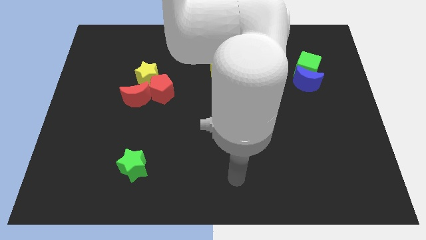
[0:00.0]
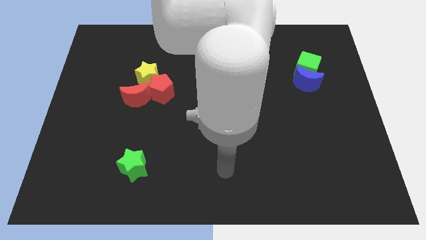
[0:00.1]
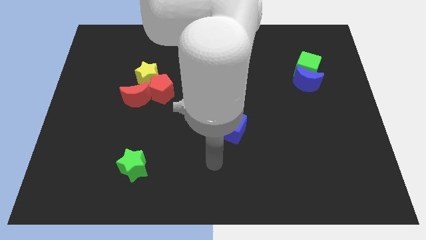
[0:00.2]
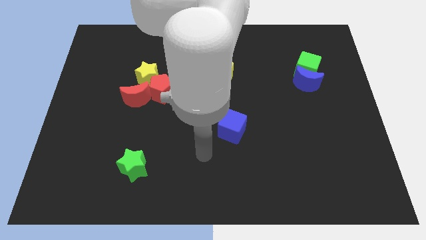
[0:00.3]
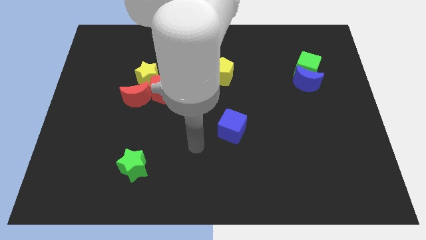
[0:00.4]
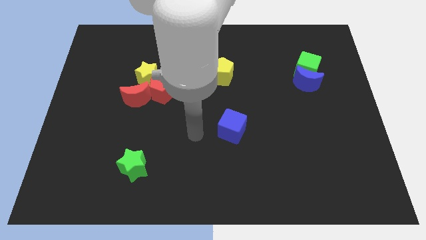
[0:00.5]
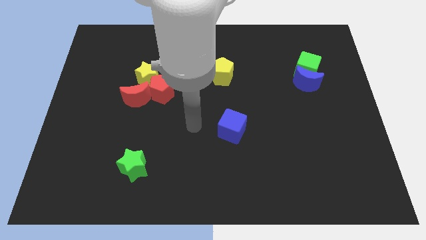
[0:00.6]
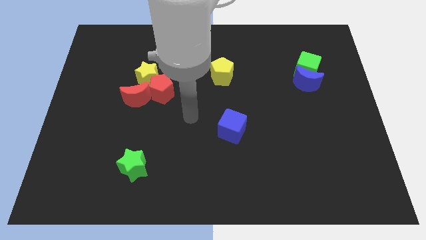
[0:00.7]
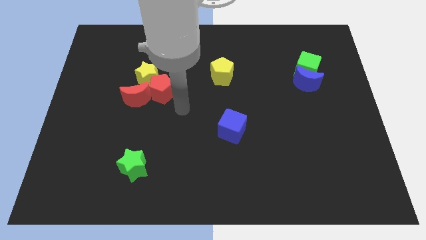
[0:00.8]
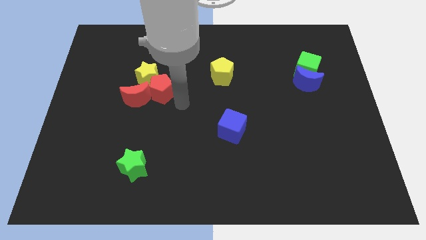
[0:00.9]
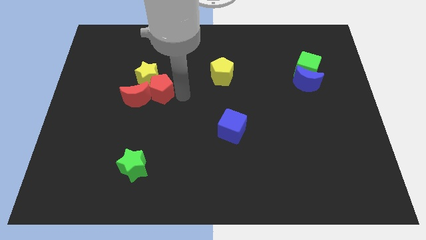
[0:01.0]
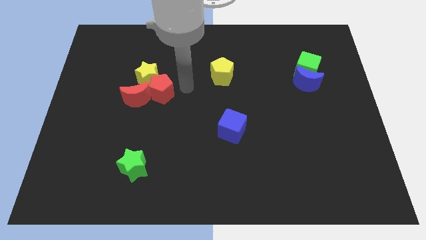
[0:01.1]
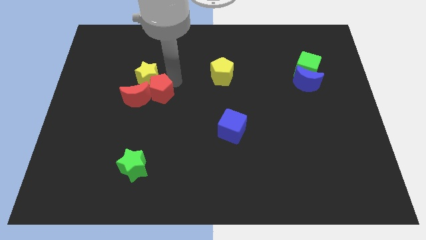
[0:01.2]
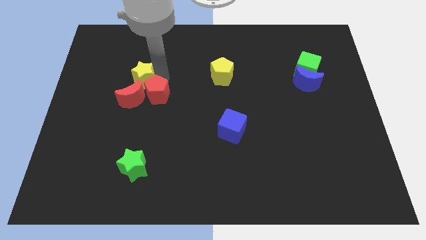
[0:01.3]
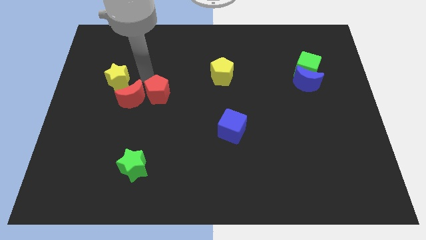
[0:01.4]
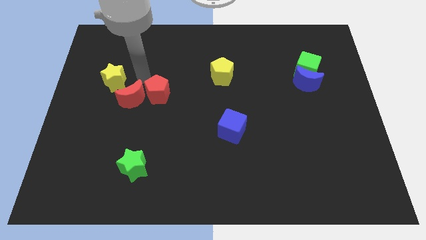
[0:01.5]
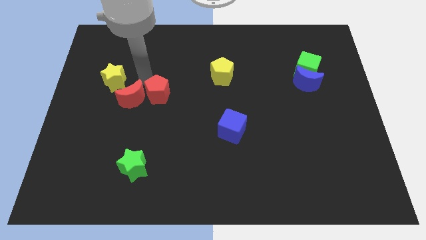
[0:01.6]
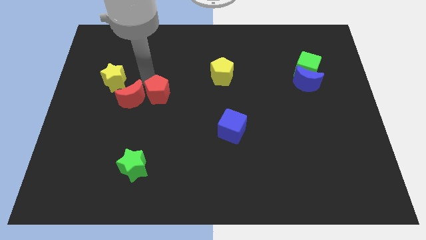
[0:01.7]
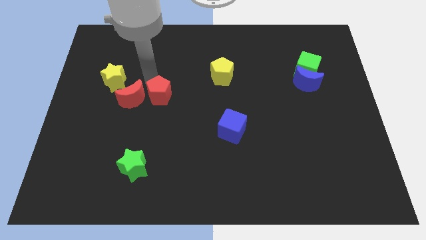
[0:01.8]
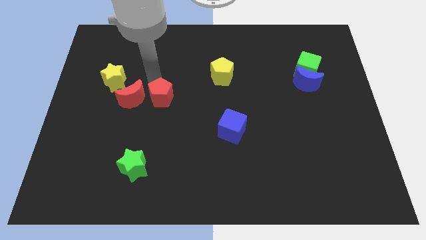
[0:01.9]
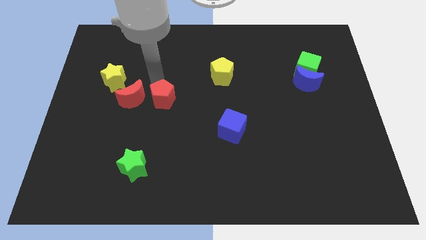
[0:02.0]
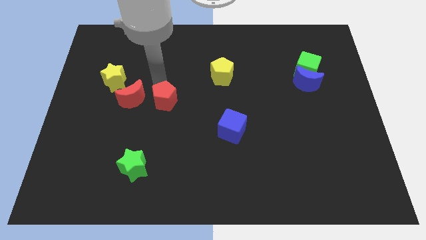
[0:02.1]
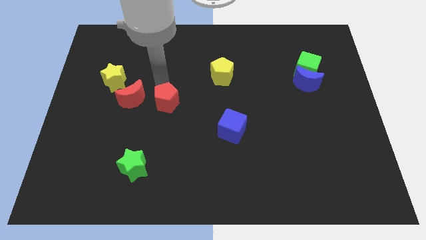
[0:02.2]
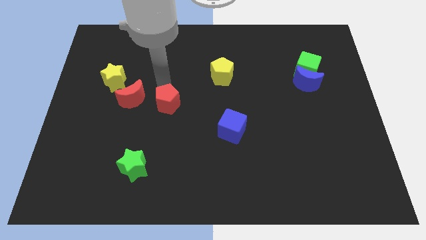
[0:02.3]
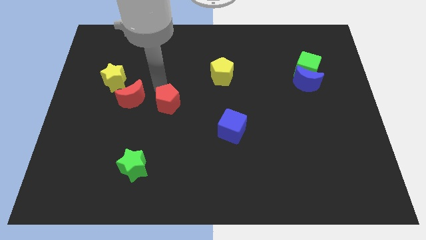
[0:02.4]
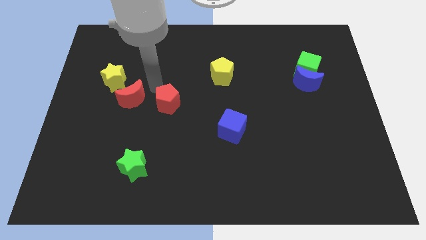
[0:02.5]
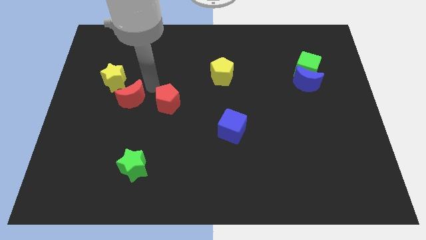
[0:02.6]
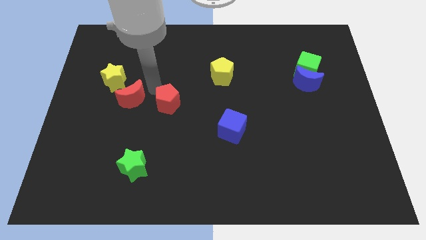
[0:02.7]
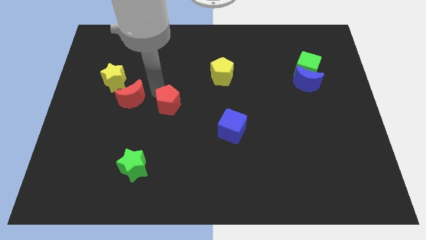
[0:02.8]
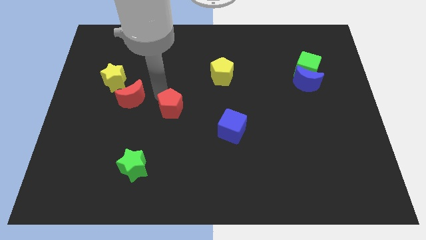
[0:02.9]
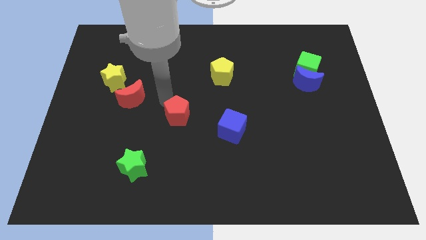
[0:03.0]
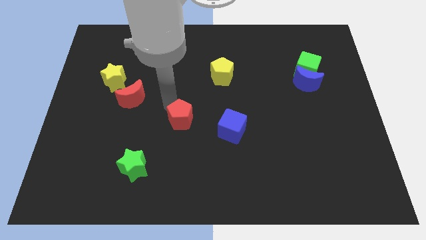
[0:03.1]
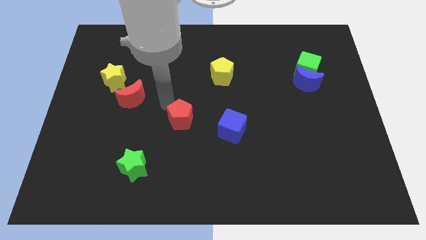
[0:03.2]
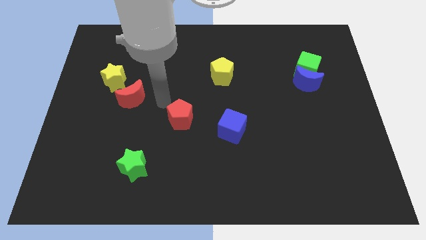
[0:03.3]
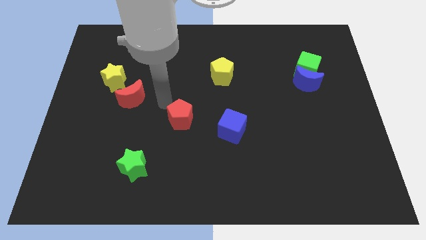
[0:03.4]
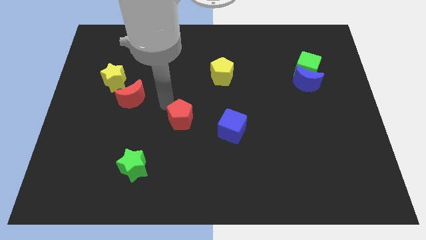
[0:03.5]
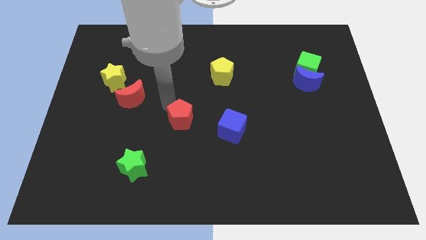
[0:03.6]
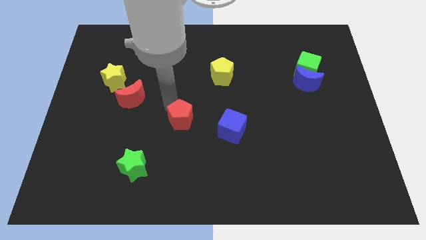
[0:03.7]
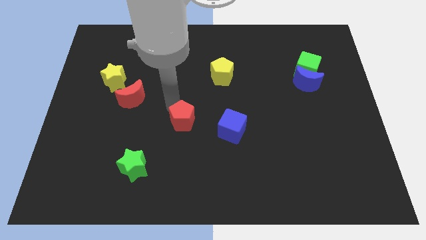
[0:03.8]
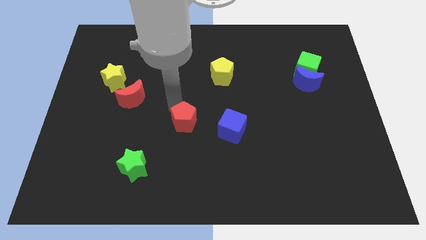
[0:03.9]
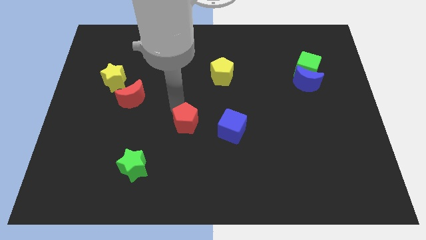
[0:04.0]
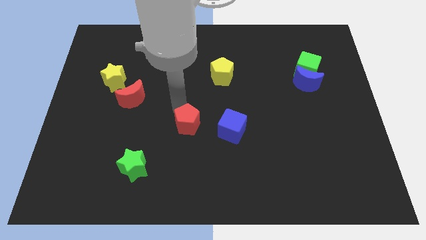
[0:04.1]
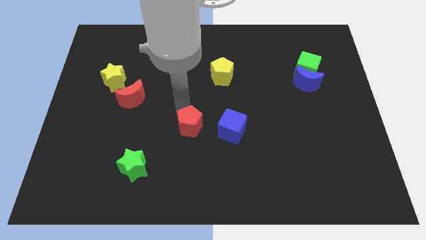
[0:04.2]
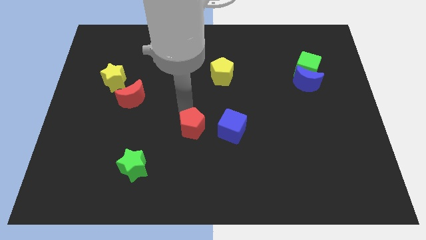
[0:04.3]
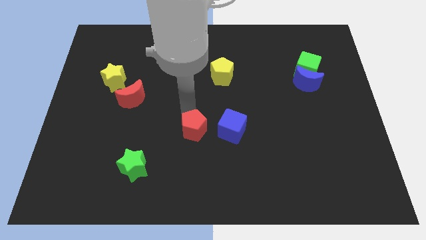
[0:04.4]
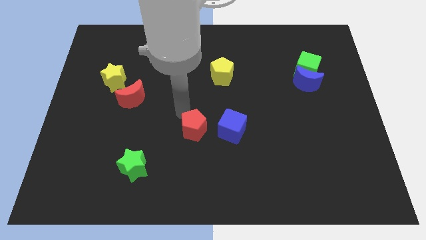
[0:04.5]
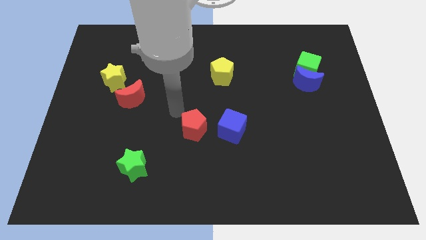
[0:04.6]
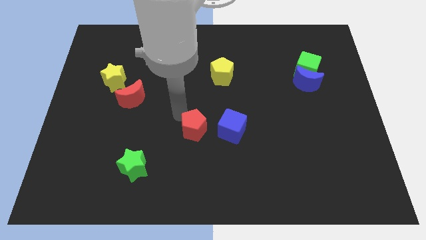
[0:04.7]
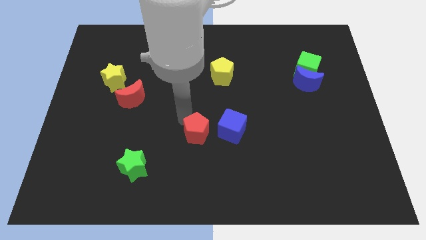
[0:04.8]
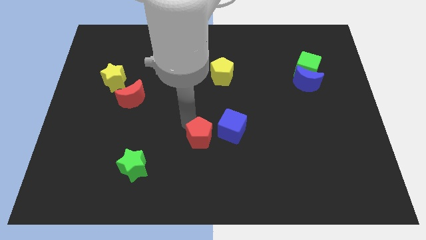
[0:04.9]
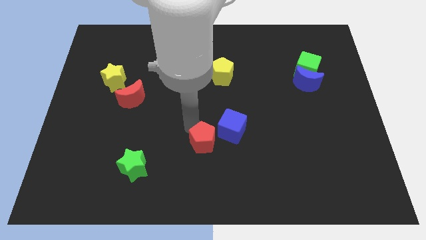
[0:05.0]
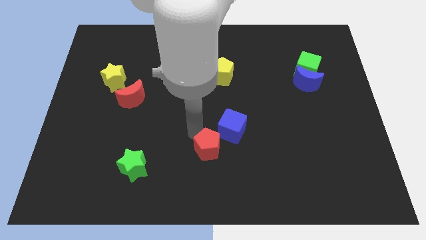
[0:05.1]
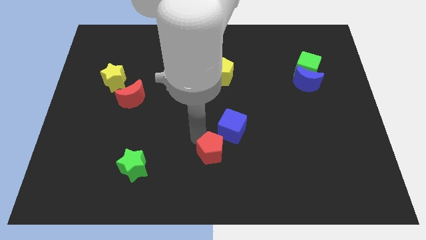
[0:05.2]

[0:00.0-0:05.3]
slide the red pentagon downwards and right

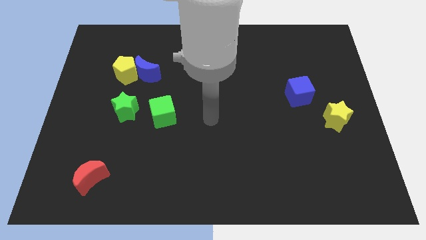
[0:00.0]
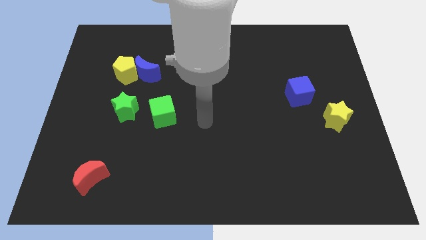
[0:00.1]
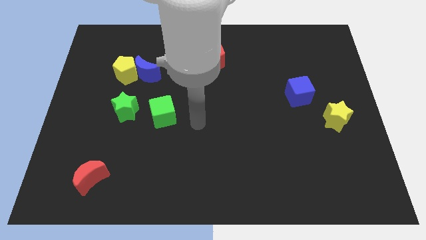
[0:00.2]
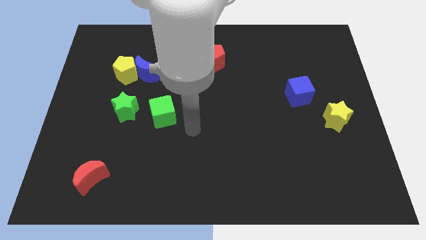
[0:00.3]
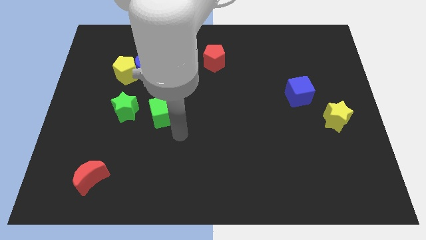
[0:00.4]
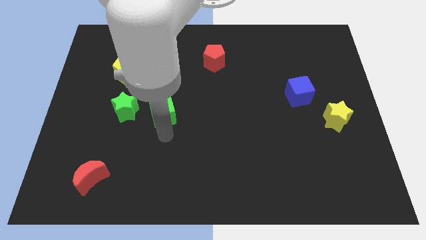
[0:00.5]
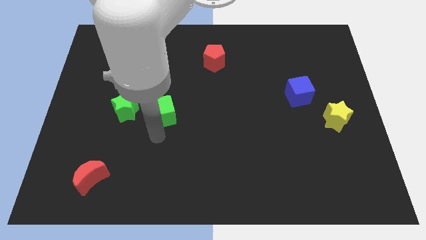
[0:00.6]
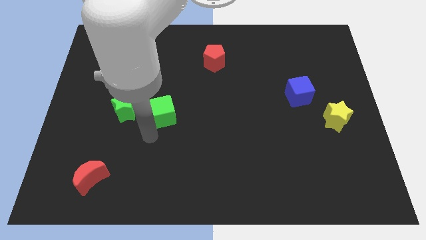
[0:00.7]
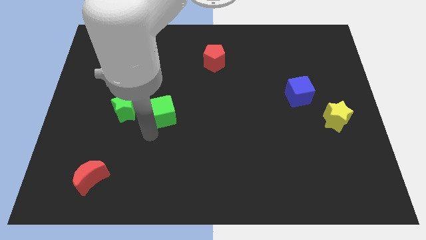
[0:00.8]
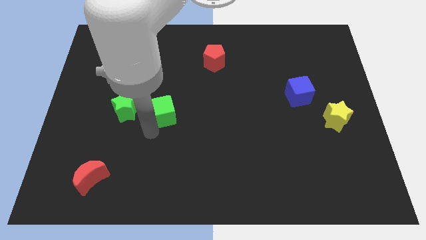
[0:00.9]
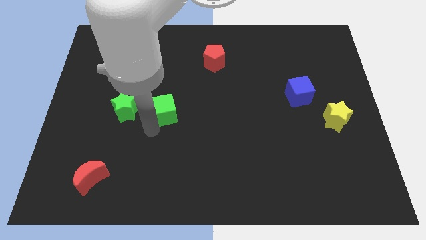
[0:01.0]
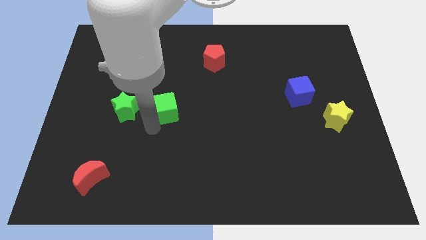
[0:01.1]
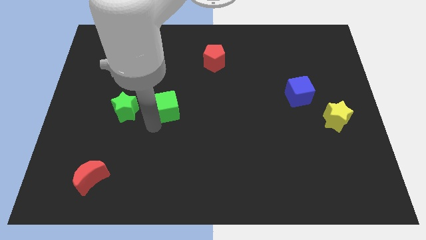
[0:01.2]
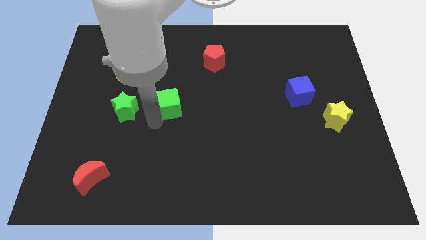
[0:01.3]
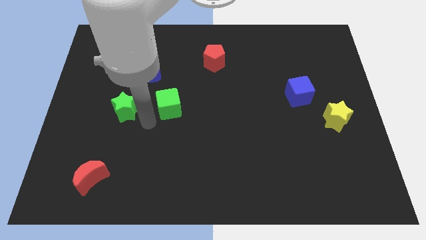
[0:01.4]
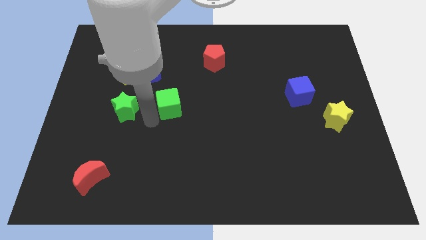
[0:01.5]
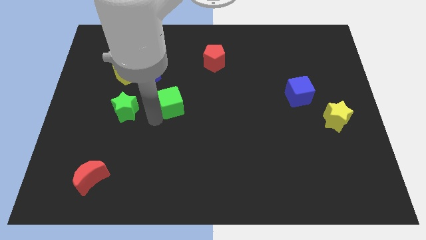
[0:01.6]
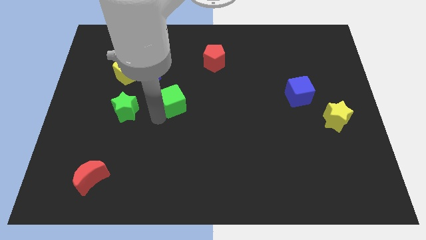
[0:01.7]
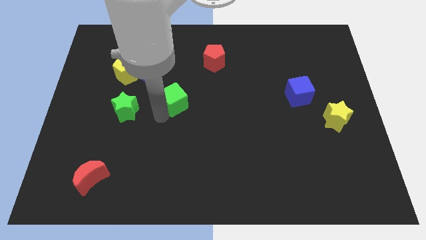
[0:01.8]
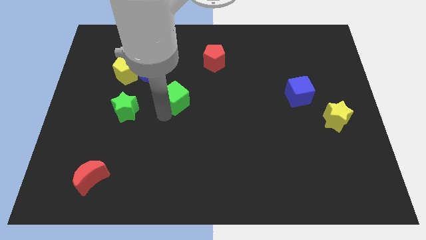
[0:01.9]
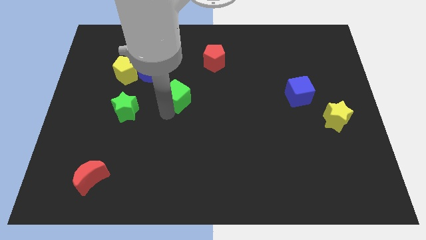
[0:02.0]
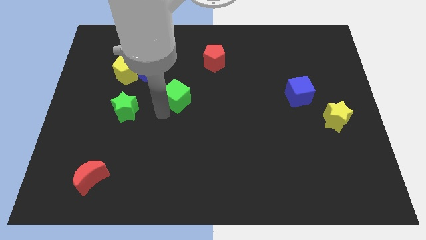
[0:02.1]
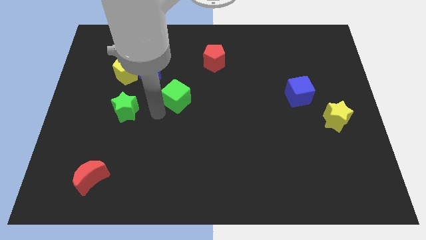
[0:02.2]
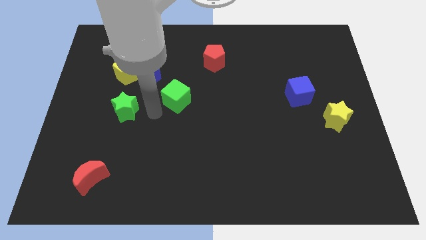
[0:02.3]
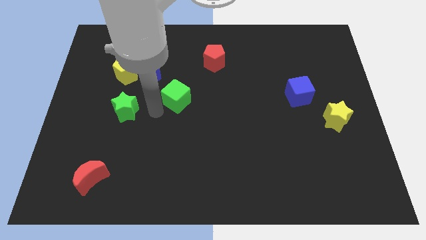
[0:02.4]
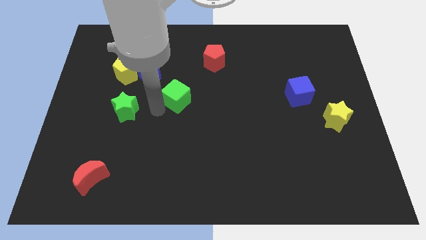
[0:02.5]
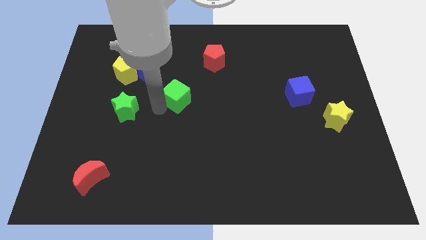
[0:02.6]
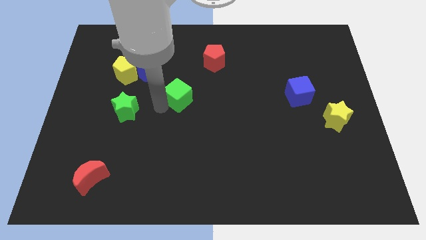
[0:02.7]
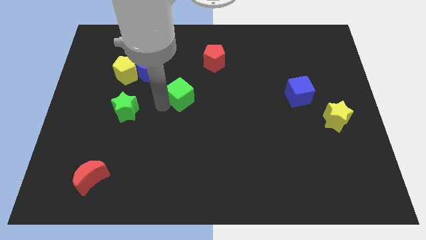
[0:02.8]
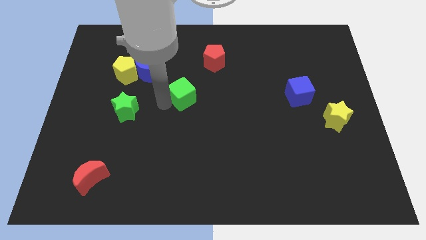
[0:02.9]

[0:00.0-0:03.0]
push the green cube upwards and then right somewhat
